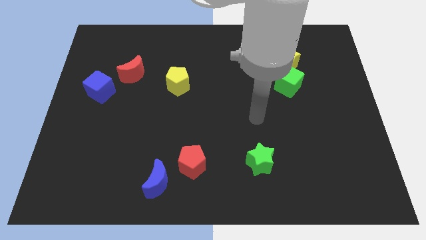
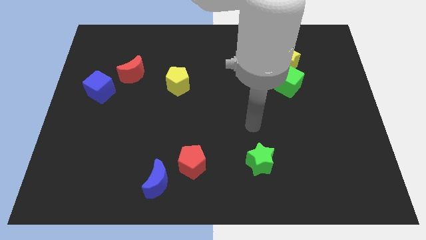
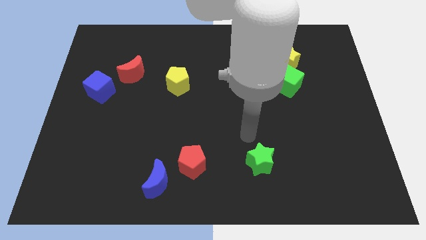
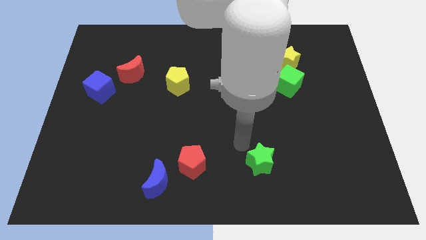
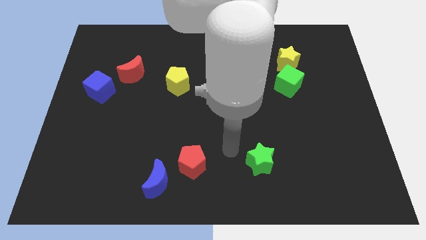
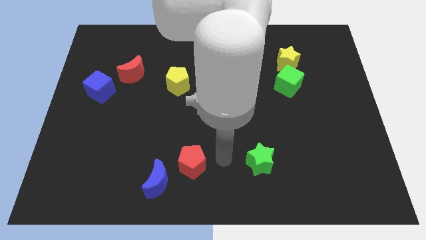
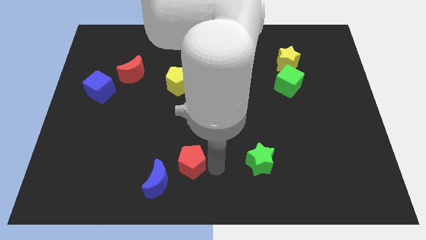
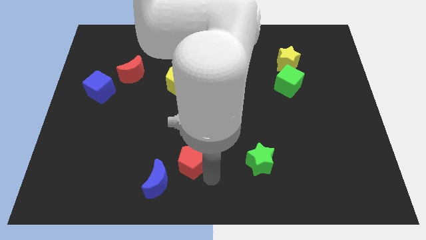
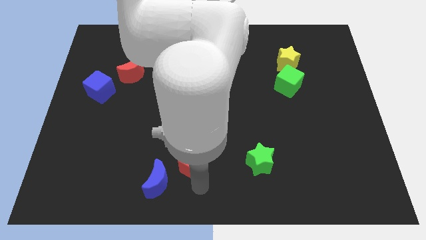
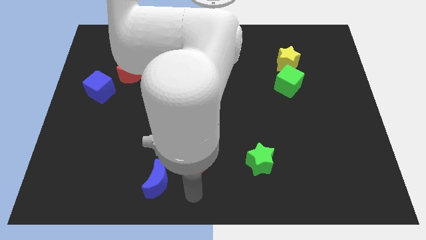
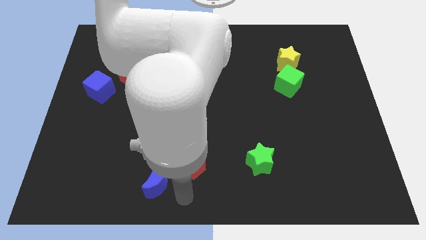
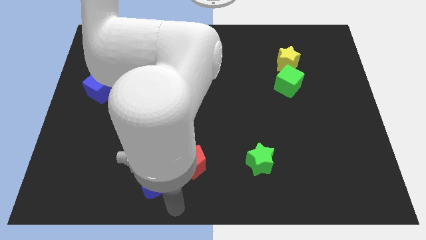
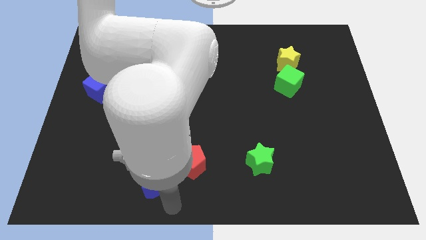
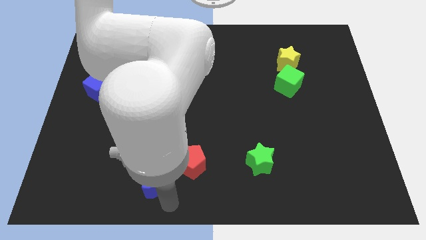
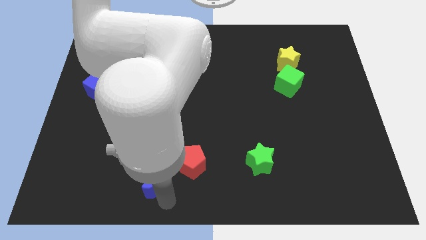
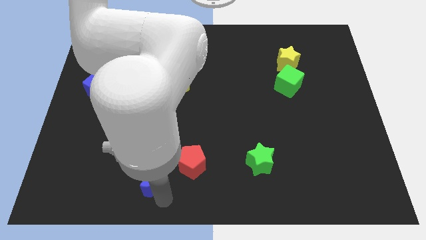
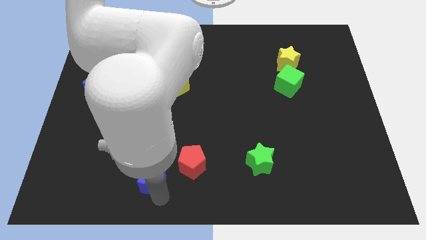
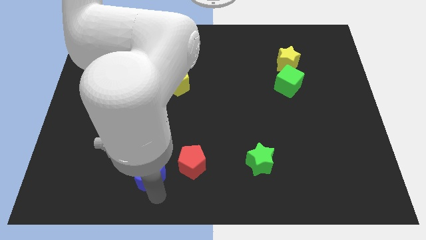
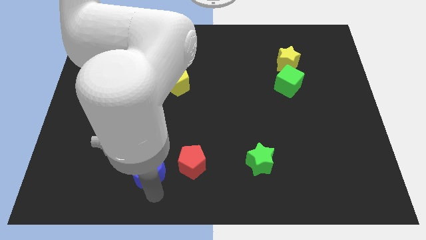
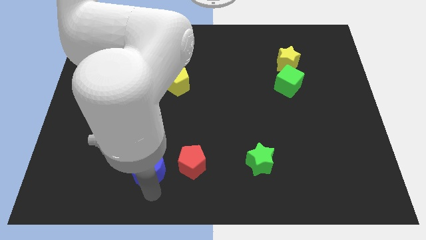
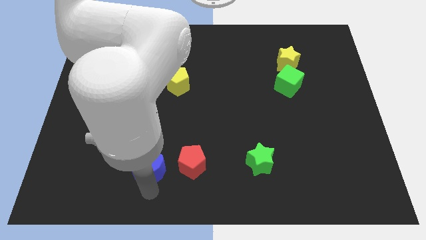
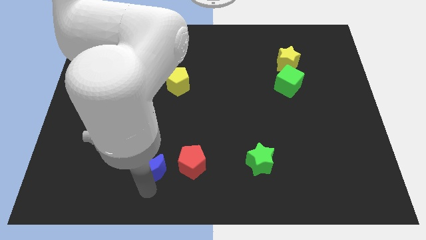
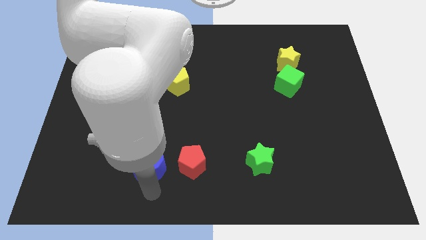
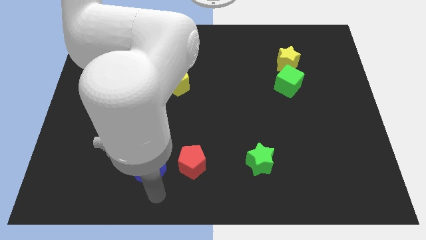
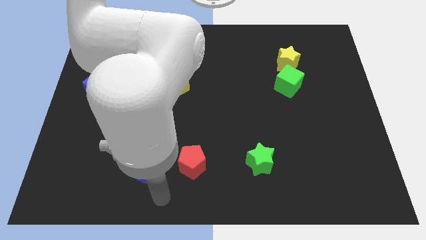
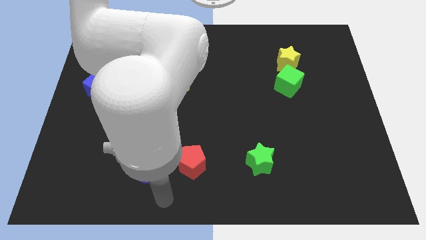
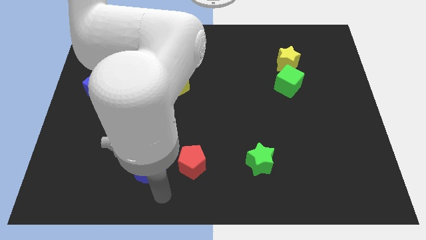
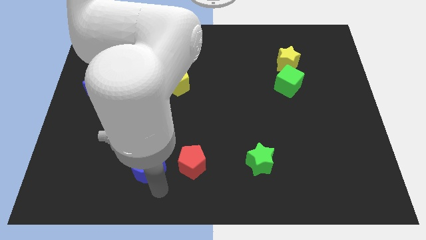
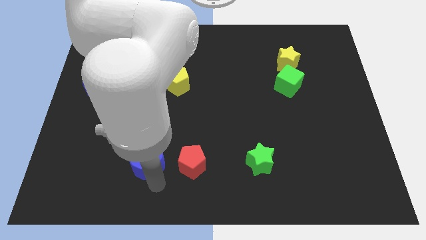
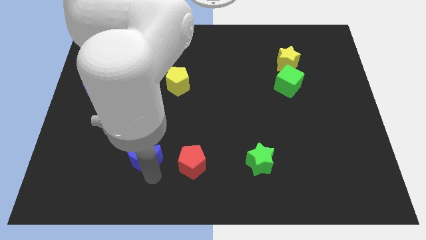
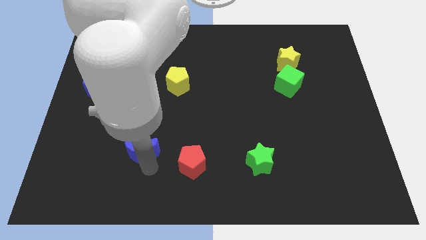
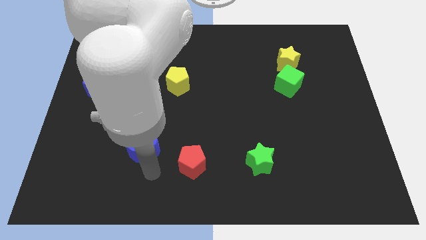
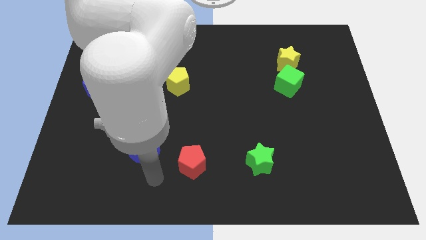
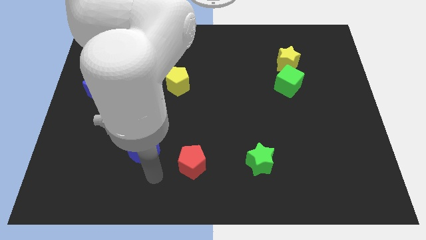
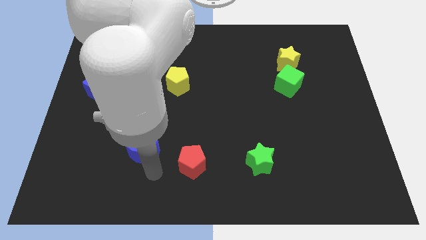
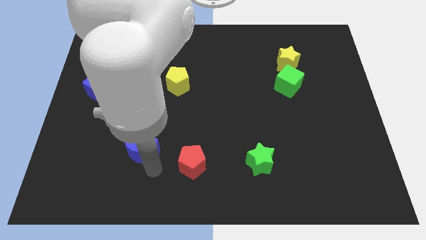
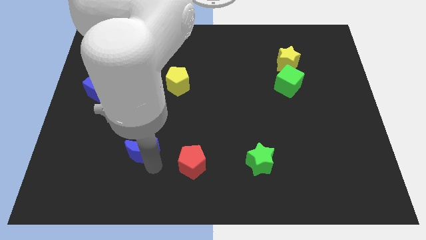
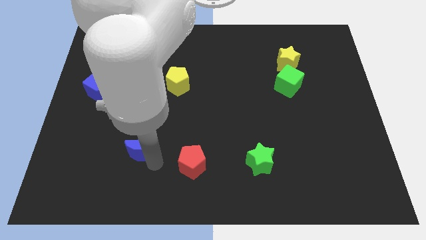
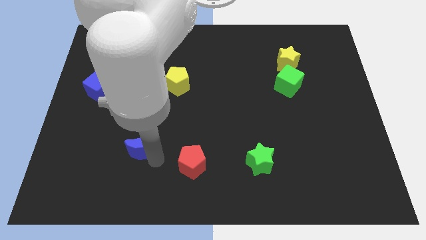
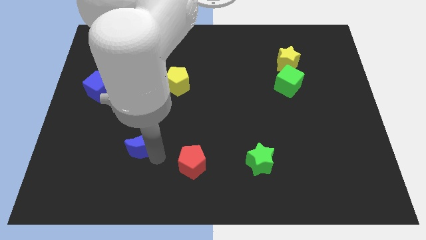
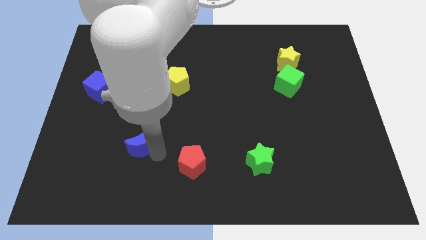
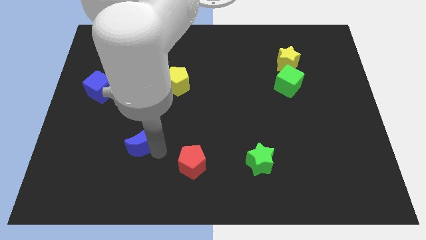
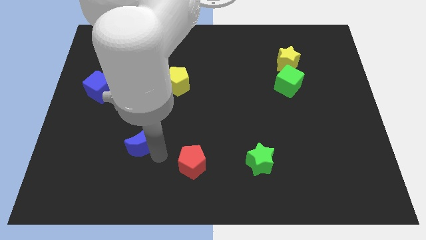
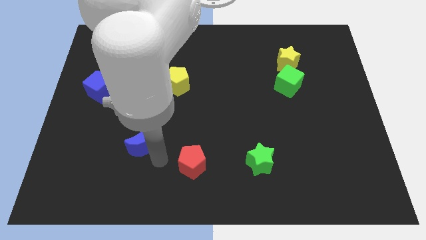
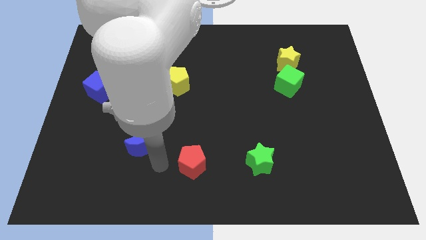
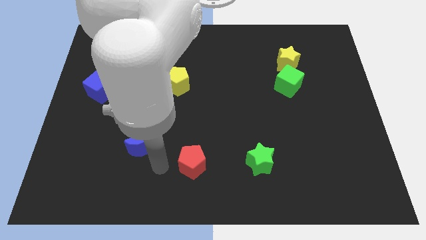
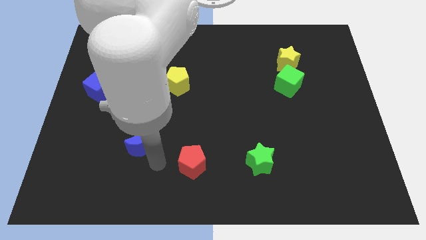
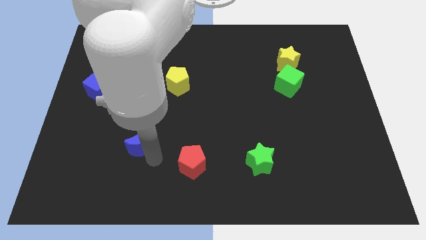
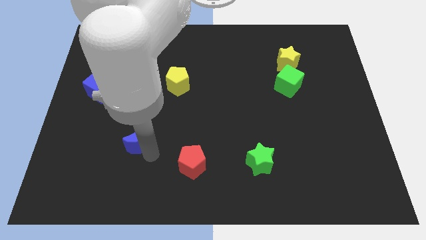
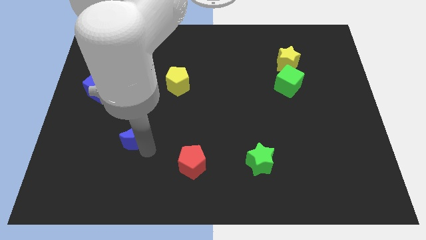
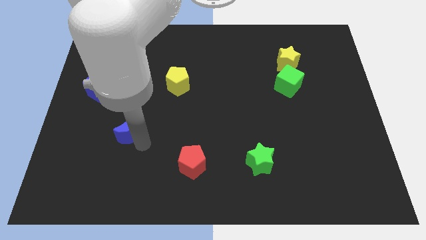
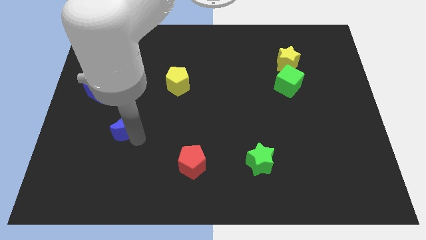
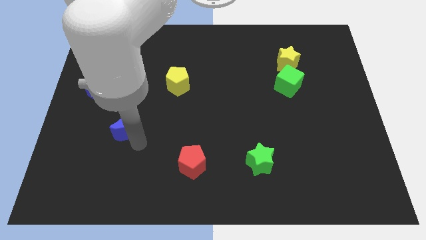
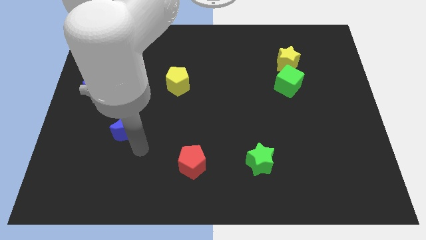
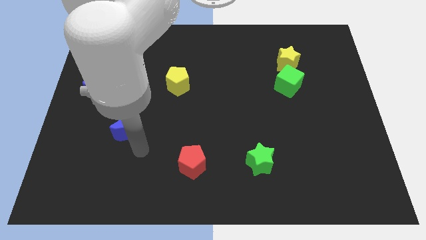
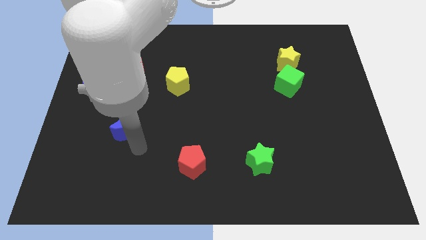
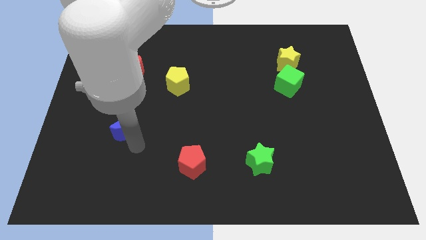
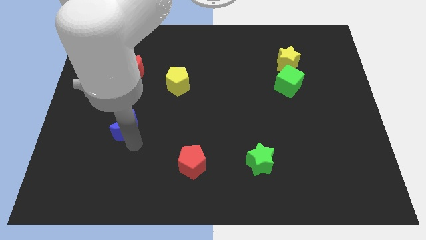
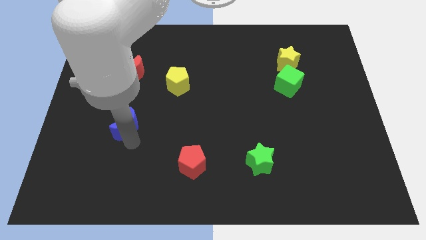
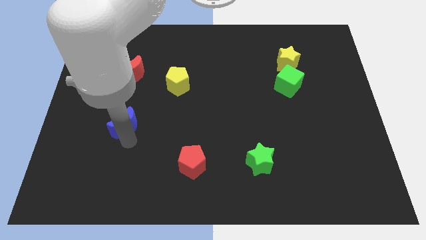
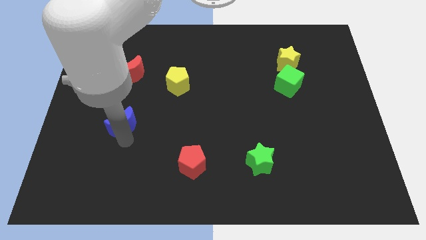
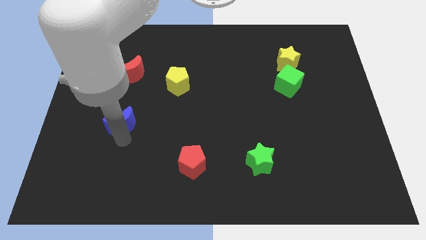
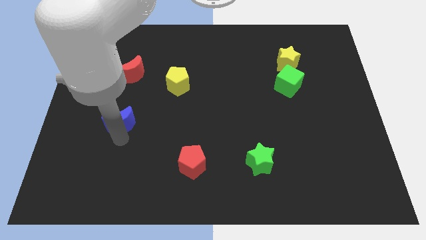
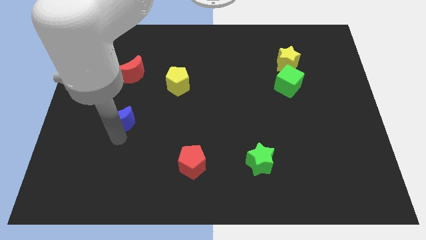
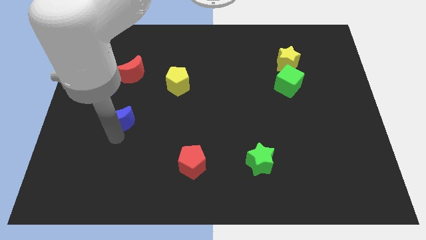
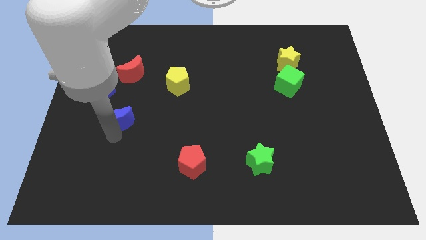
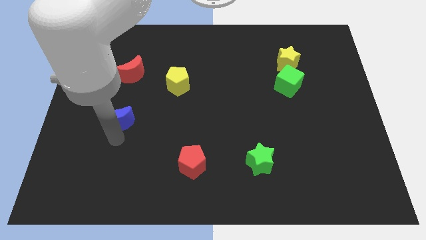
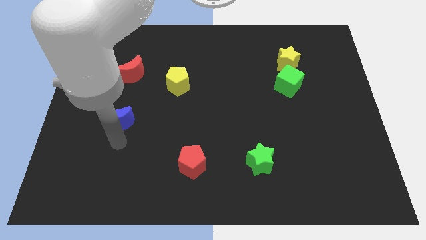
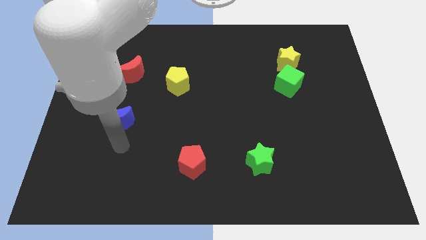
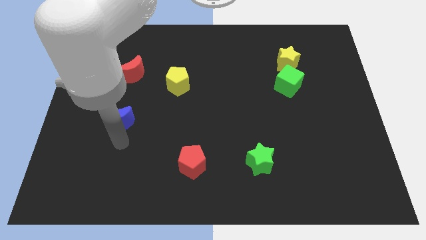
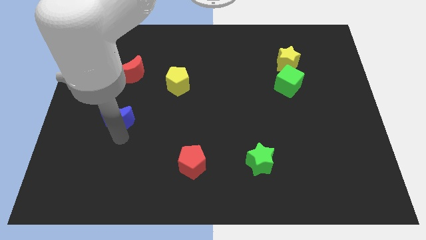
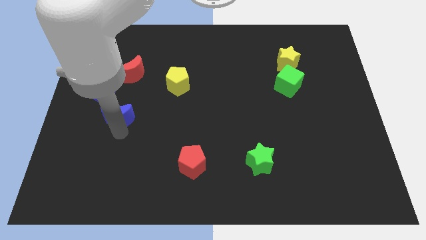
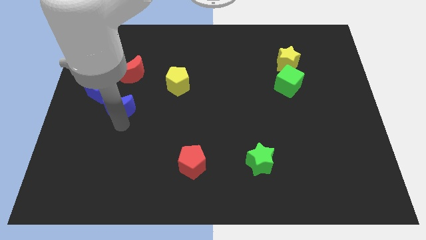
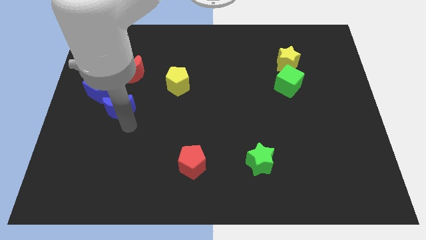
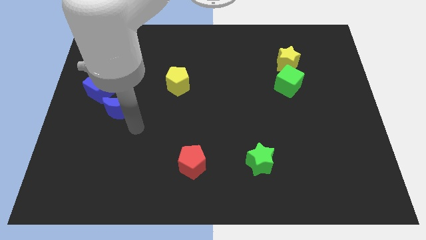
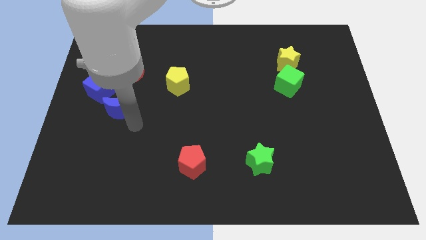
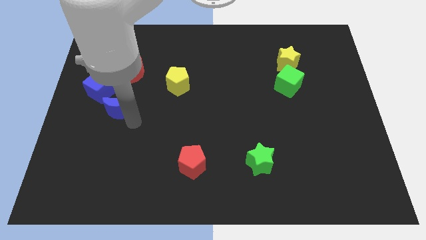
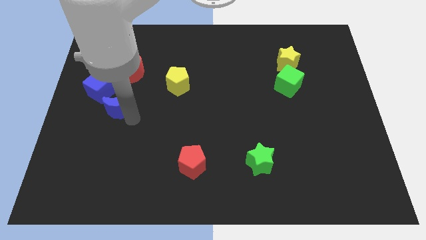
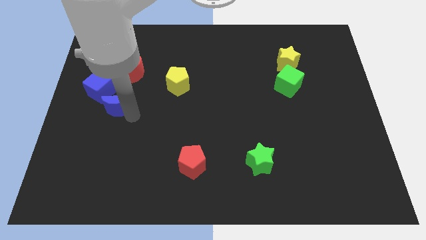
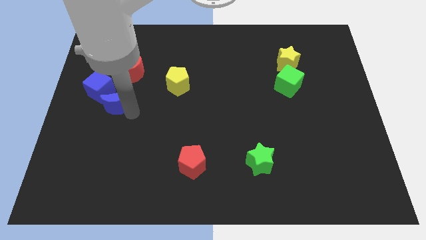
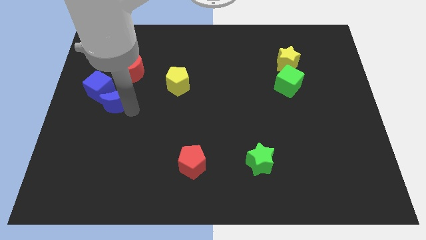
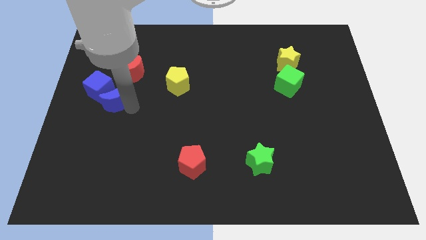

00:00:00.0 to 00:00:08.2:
push the blue moon to the blue cube
